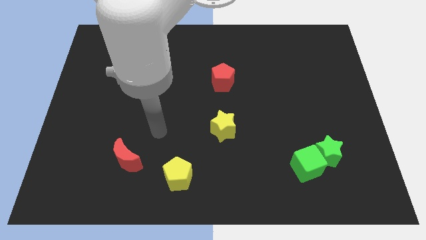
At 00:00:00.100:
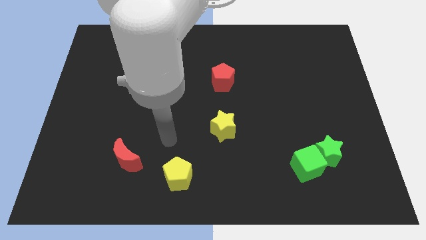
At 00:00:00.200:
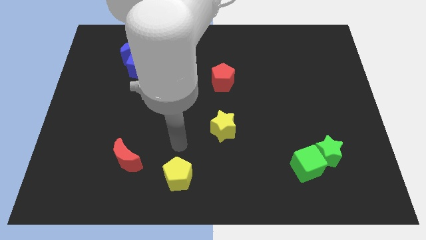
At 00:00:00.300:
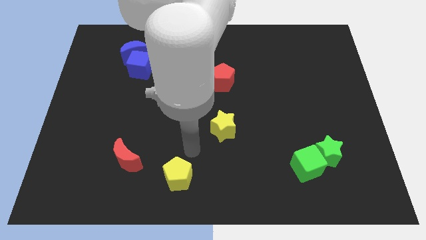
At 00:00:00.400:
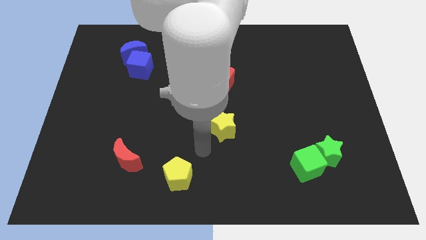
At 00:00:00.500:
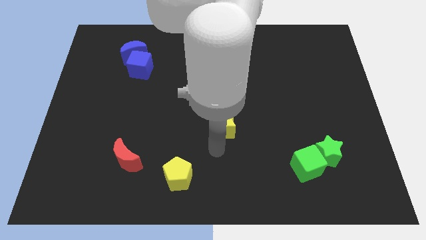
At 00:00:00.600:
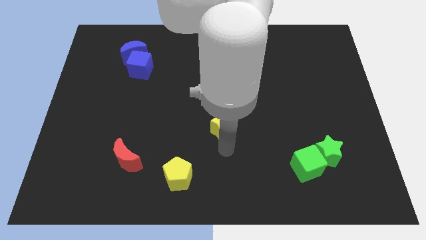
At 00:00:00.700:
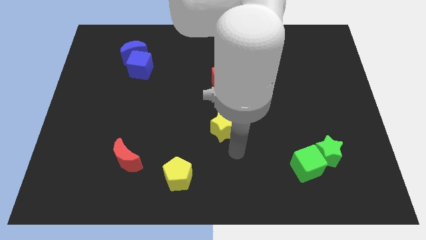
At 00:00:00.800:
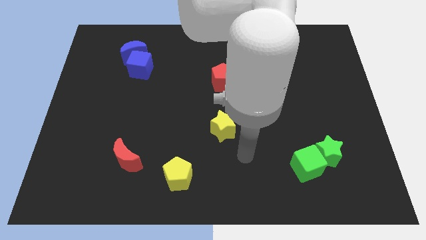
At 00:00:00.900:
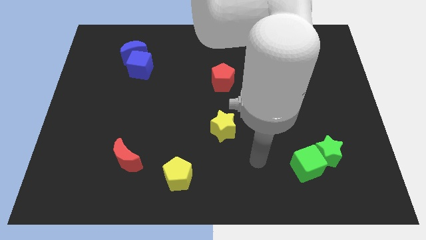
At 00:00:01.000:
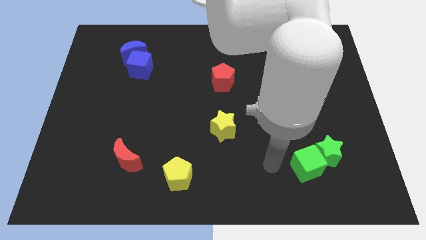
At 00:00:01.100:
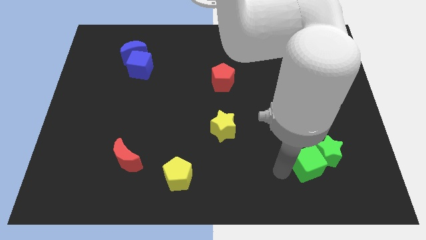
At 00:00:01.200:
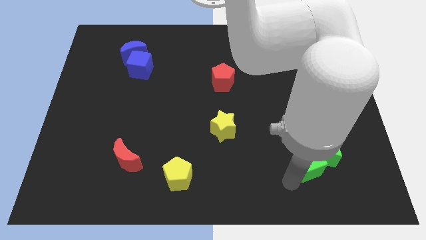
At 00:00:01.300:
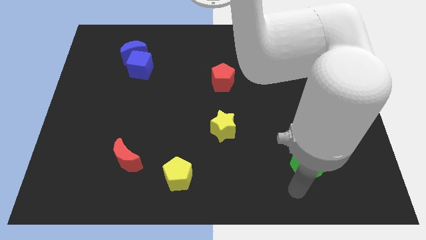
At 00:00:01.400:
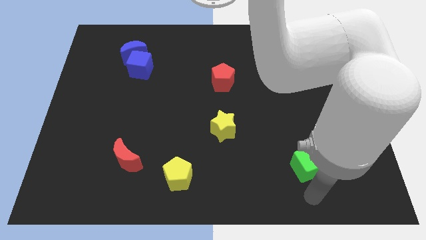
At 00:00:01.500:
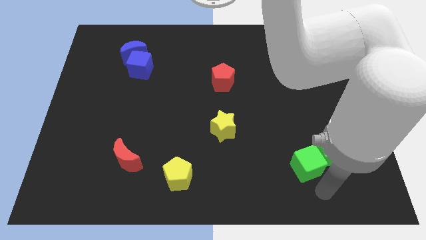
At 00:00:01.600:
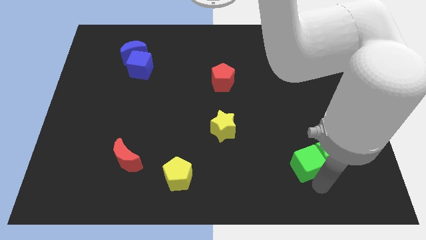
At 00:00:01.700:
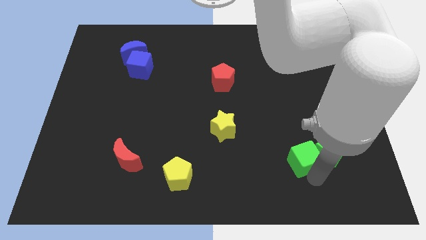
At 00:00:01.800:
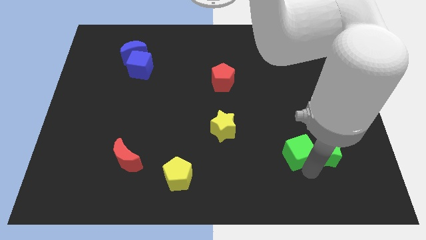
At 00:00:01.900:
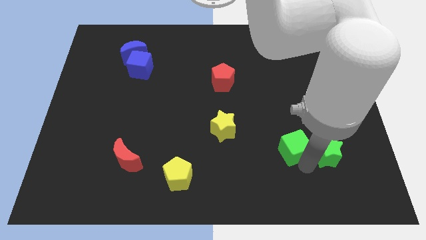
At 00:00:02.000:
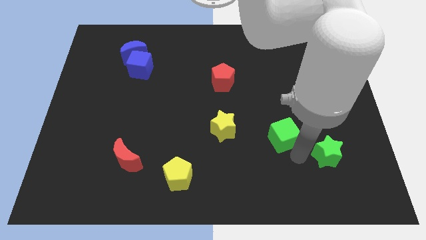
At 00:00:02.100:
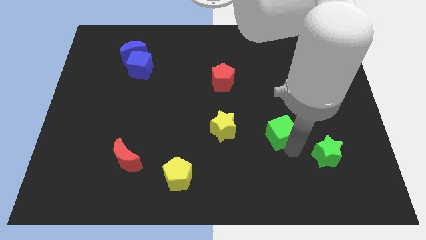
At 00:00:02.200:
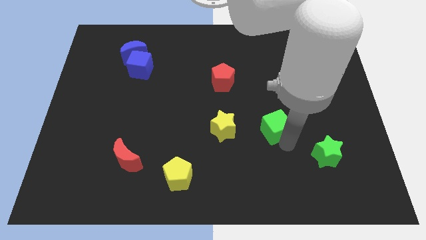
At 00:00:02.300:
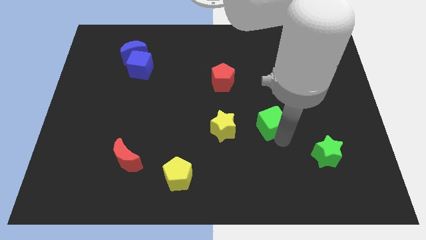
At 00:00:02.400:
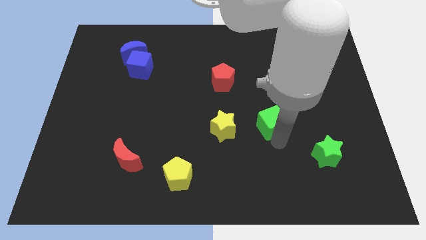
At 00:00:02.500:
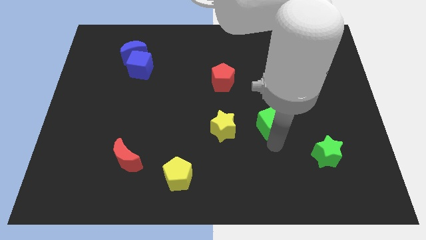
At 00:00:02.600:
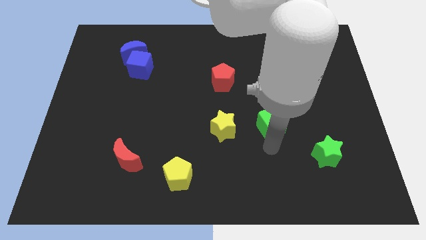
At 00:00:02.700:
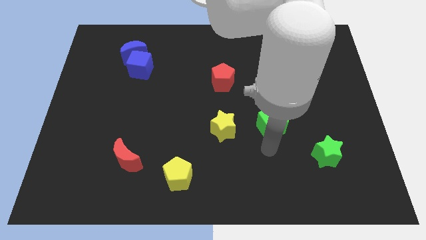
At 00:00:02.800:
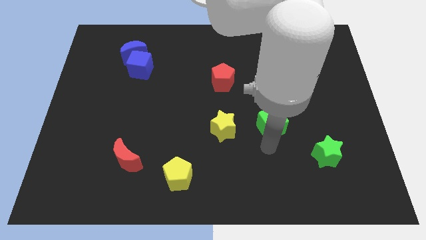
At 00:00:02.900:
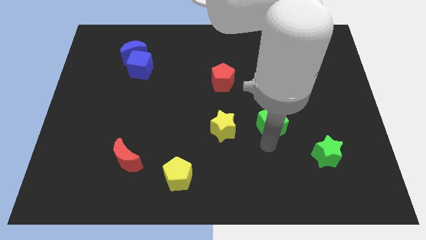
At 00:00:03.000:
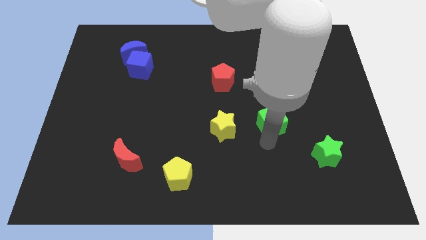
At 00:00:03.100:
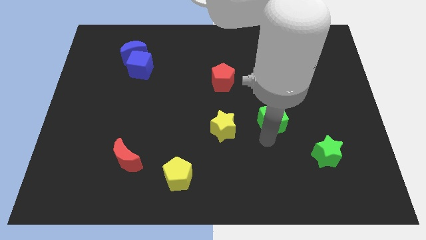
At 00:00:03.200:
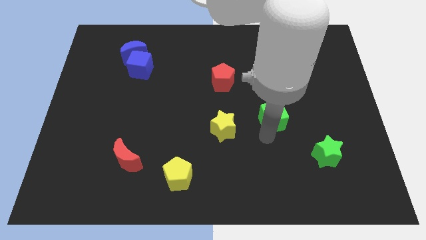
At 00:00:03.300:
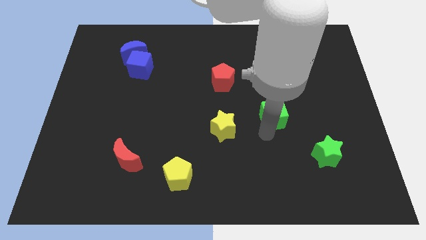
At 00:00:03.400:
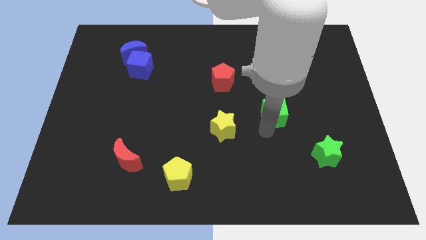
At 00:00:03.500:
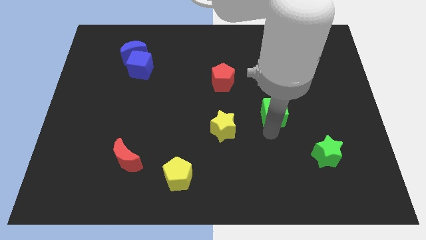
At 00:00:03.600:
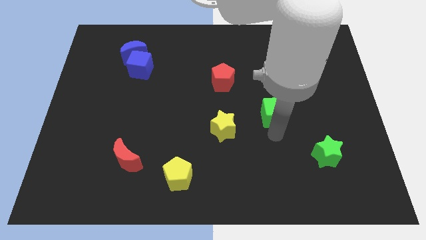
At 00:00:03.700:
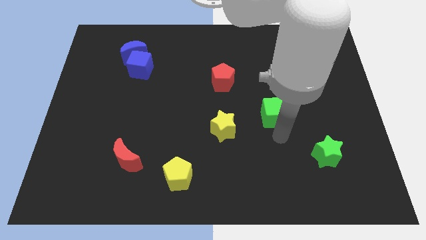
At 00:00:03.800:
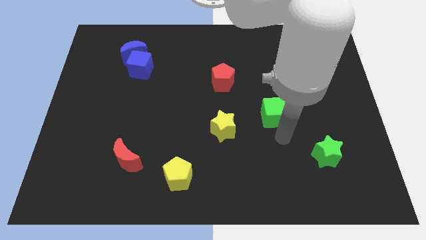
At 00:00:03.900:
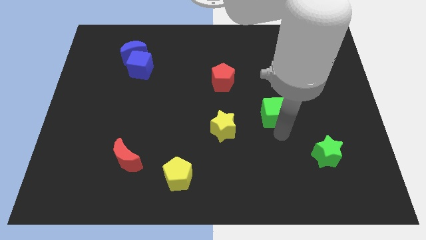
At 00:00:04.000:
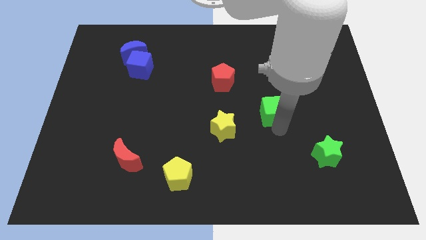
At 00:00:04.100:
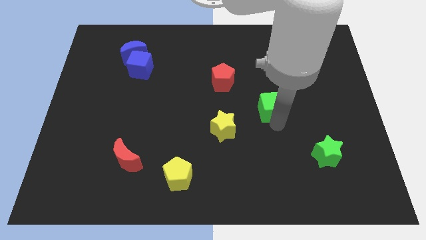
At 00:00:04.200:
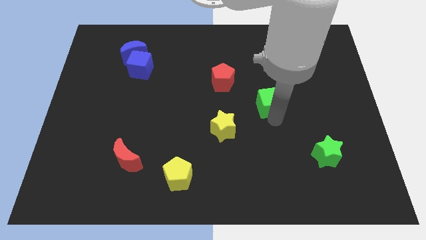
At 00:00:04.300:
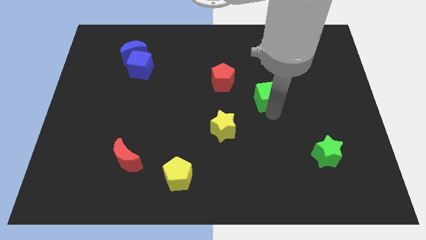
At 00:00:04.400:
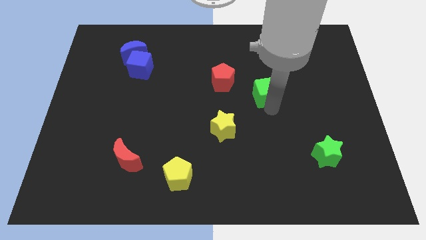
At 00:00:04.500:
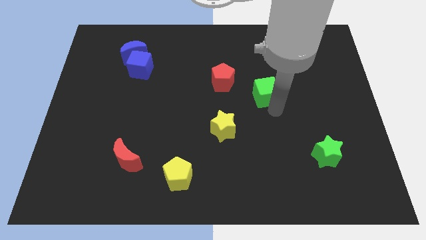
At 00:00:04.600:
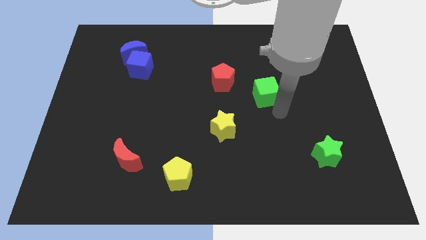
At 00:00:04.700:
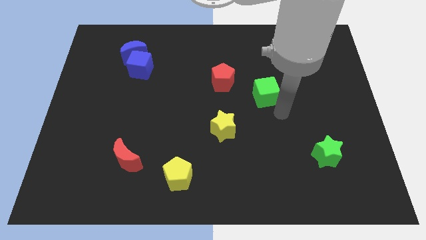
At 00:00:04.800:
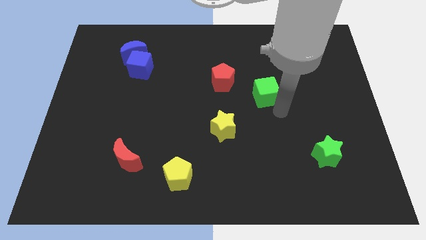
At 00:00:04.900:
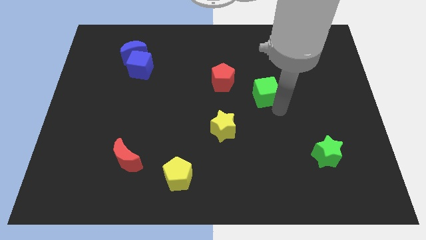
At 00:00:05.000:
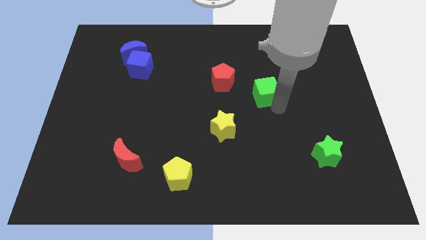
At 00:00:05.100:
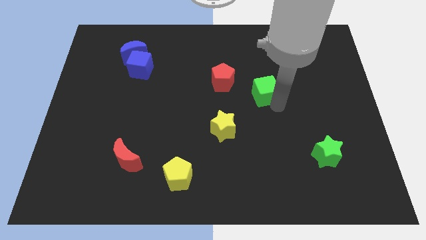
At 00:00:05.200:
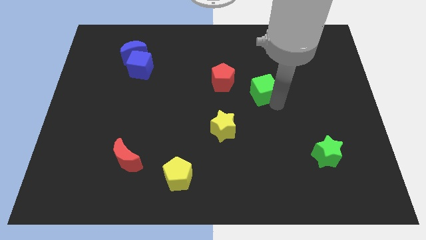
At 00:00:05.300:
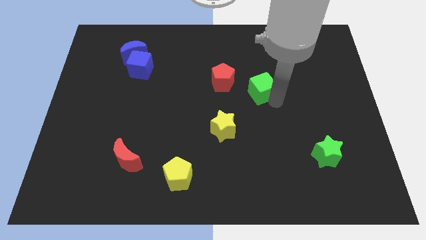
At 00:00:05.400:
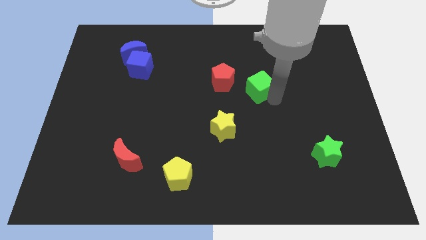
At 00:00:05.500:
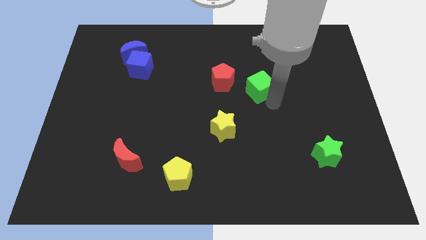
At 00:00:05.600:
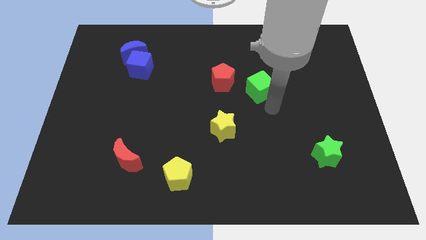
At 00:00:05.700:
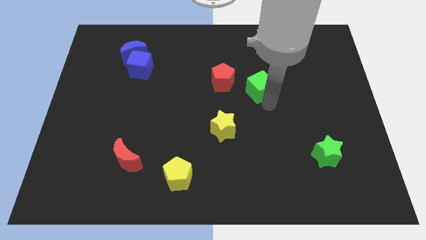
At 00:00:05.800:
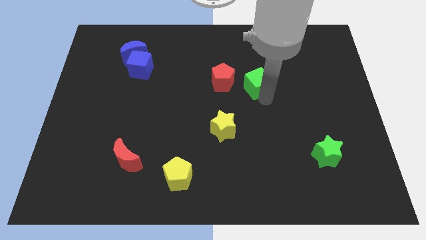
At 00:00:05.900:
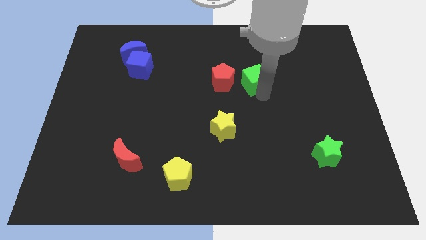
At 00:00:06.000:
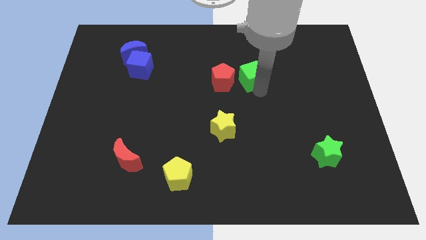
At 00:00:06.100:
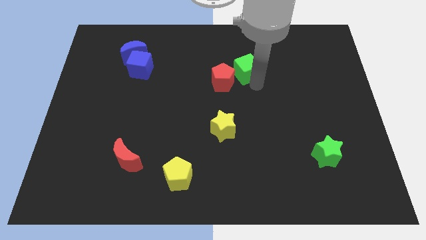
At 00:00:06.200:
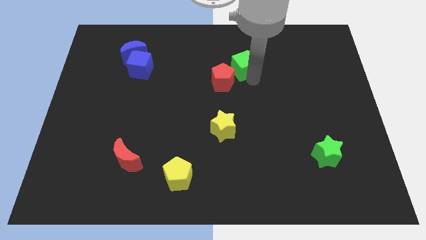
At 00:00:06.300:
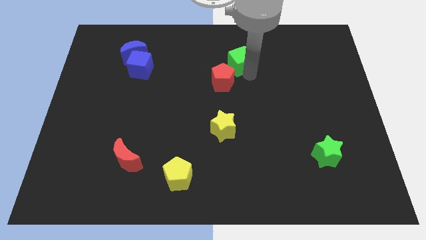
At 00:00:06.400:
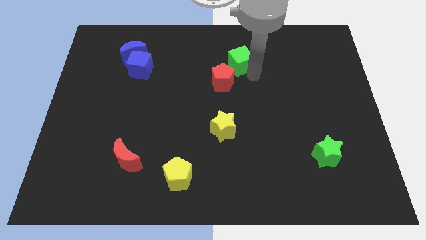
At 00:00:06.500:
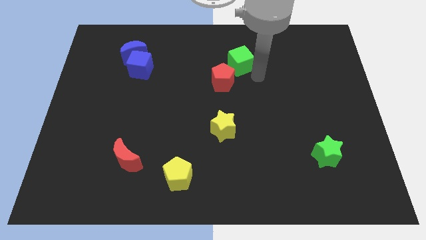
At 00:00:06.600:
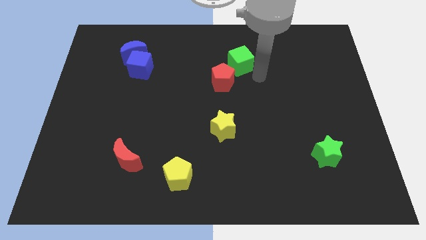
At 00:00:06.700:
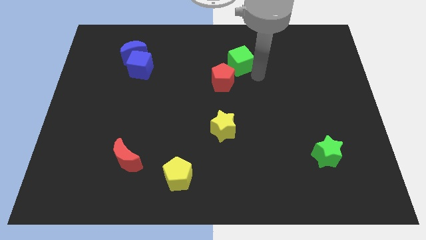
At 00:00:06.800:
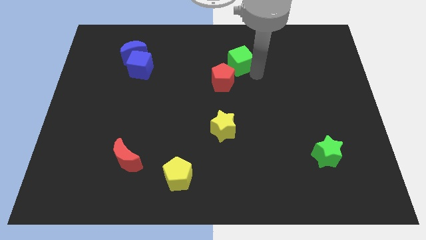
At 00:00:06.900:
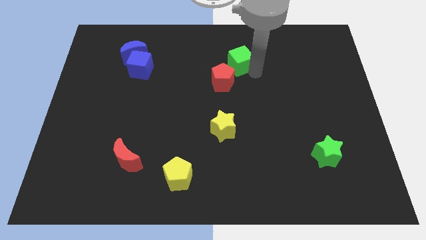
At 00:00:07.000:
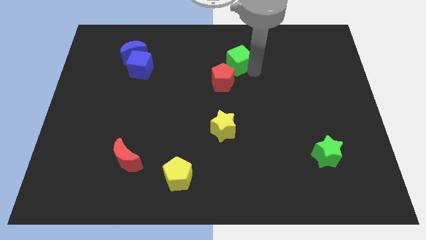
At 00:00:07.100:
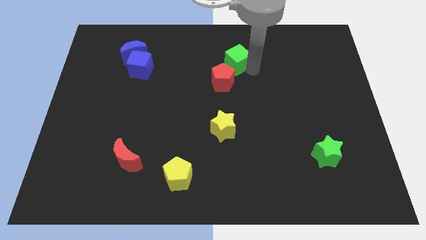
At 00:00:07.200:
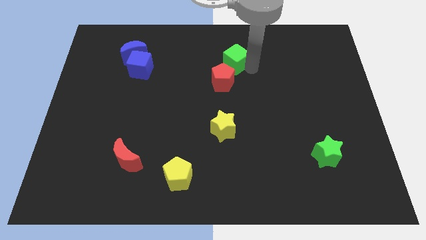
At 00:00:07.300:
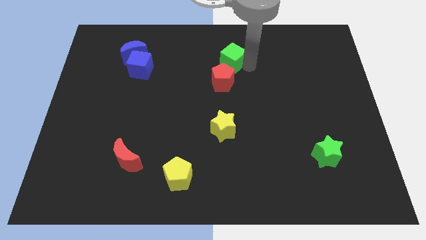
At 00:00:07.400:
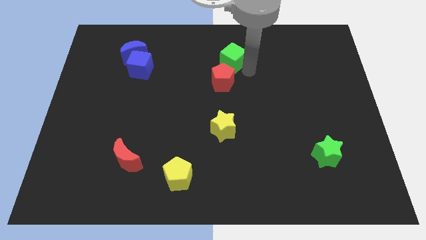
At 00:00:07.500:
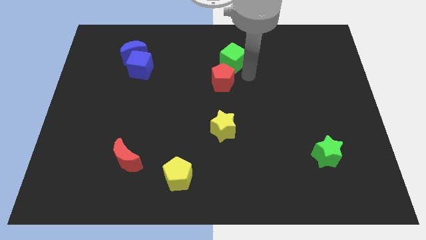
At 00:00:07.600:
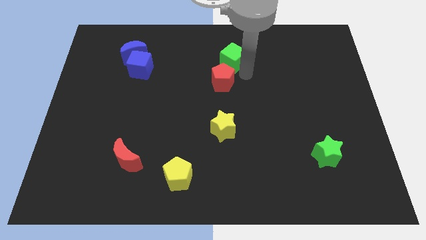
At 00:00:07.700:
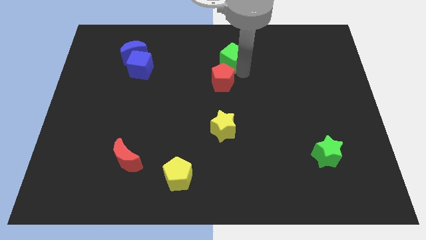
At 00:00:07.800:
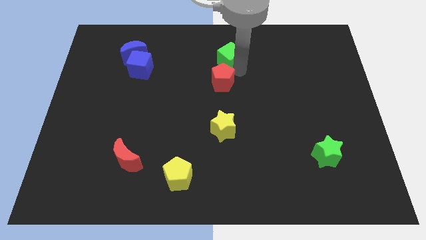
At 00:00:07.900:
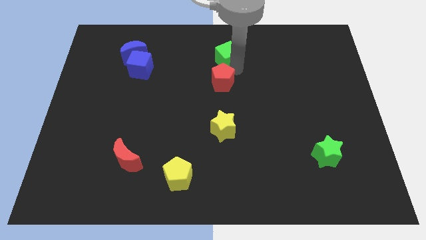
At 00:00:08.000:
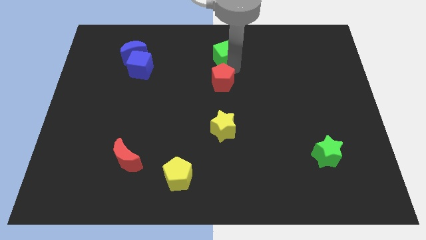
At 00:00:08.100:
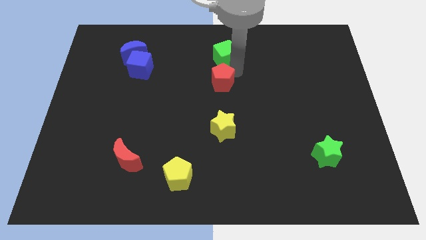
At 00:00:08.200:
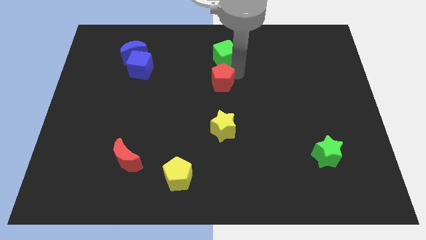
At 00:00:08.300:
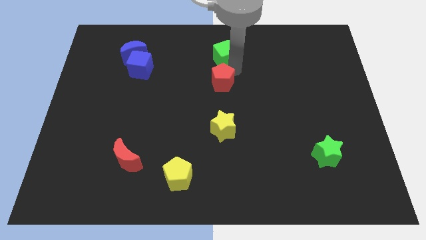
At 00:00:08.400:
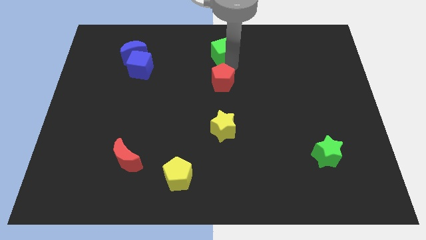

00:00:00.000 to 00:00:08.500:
move the green cube to the top
